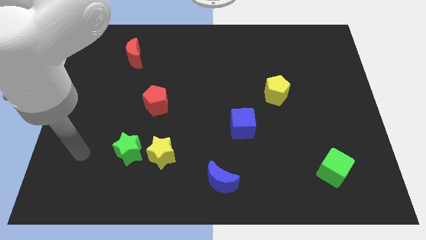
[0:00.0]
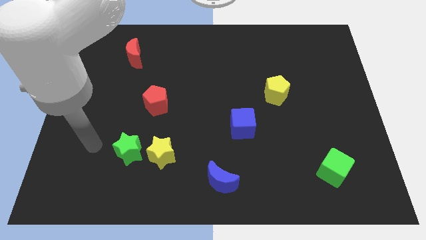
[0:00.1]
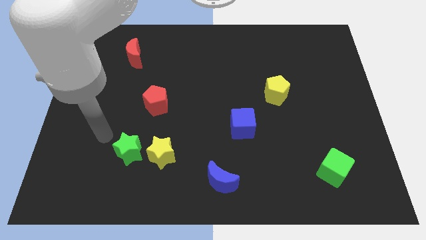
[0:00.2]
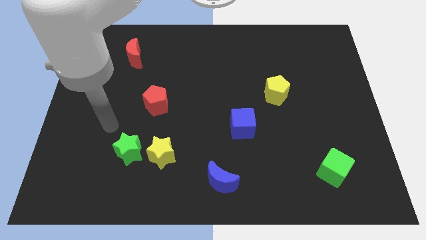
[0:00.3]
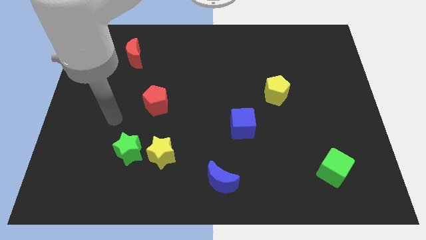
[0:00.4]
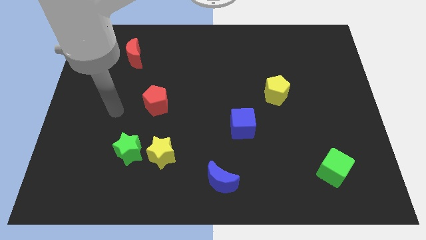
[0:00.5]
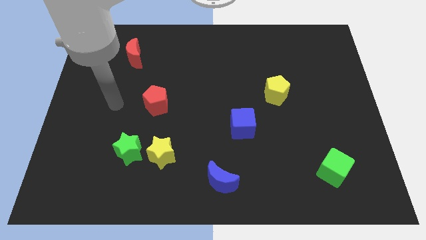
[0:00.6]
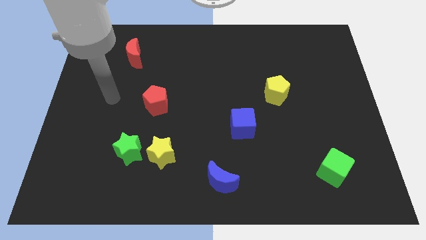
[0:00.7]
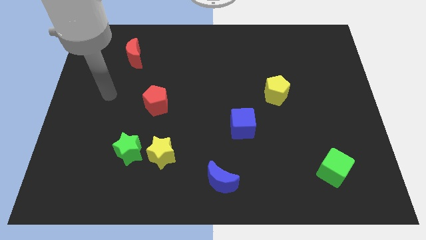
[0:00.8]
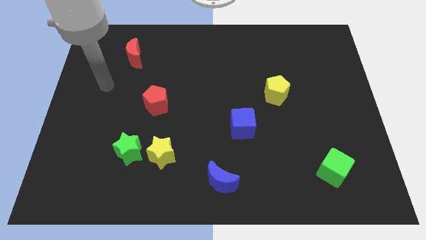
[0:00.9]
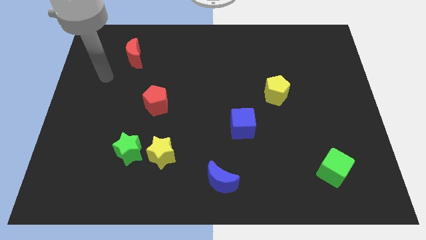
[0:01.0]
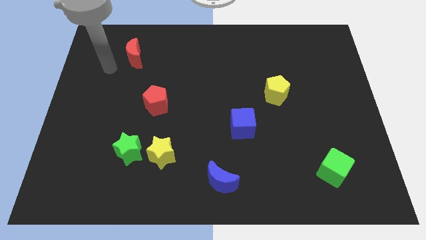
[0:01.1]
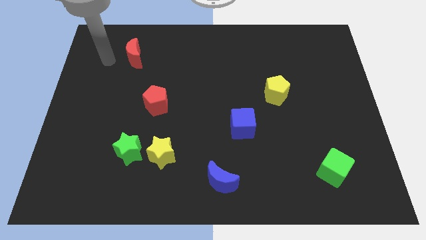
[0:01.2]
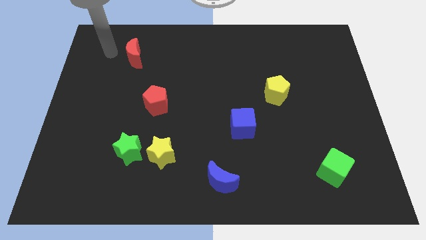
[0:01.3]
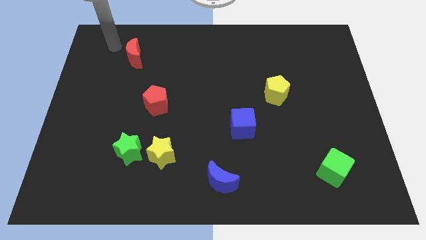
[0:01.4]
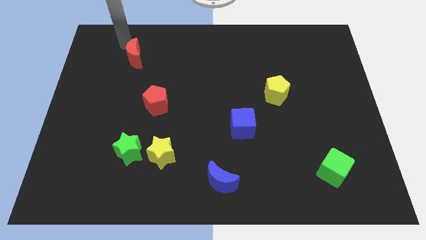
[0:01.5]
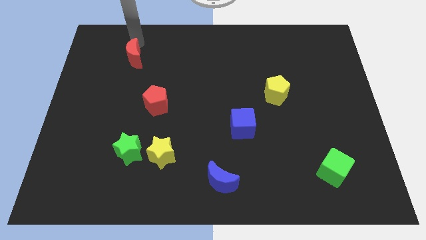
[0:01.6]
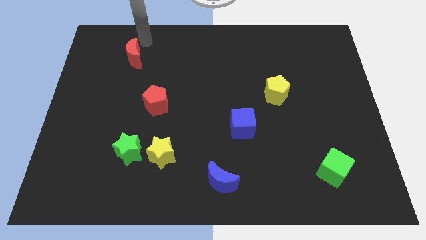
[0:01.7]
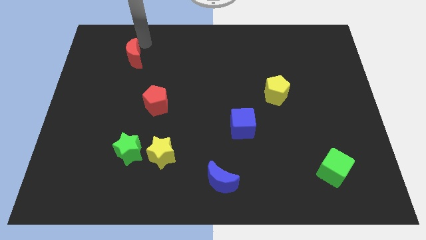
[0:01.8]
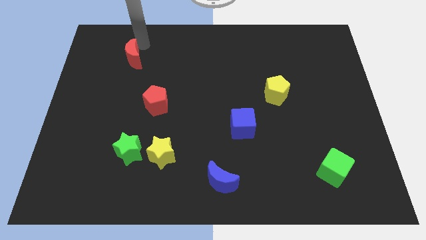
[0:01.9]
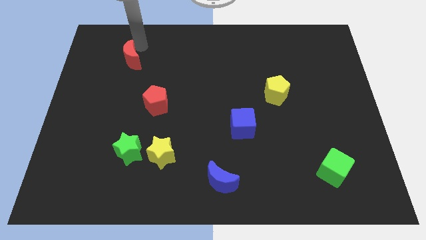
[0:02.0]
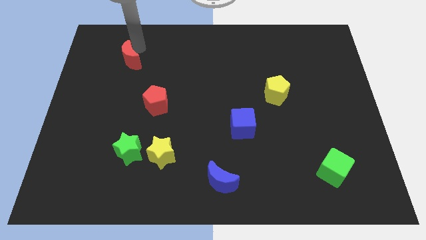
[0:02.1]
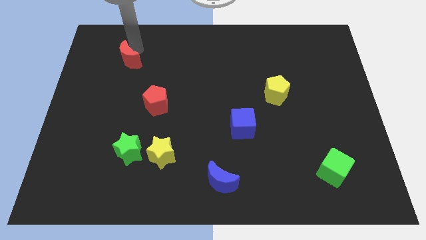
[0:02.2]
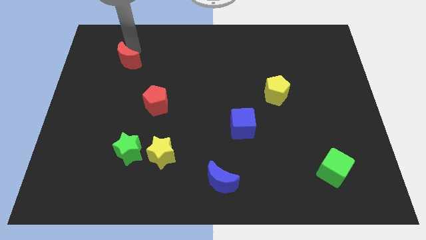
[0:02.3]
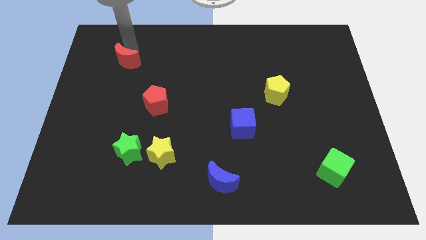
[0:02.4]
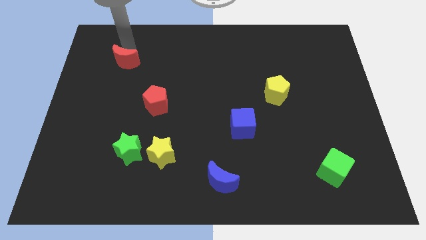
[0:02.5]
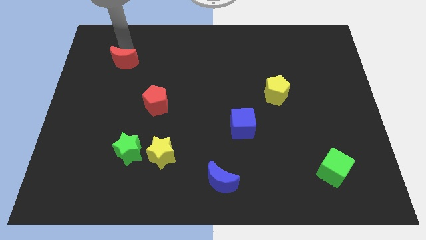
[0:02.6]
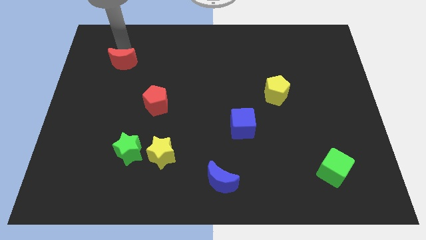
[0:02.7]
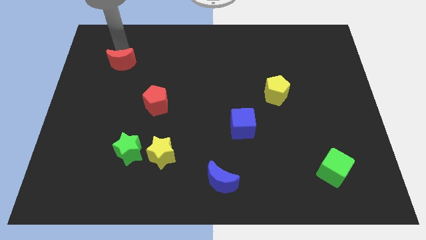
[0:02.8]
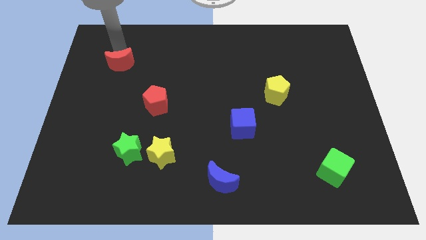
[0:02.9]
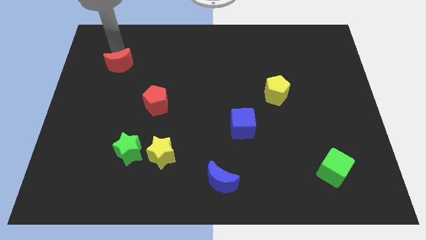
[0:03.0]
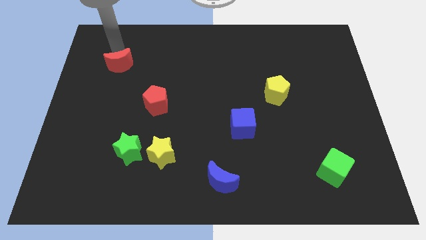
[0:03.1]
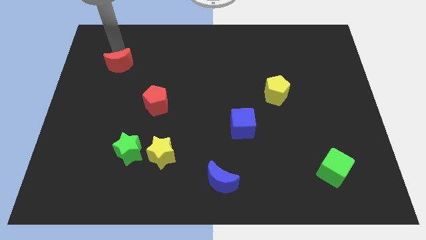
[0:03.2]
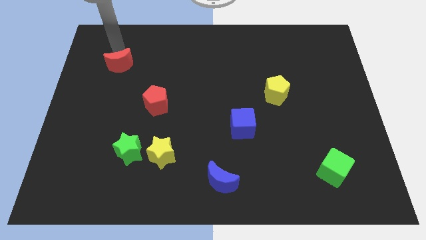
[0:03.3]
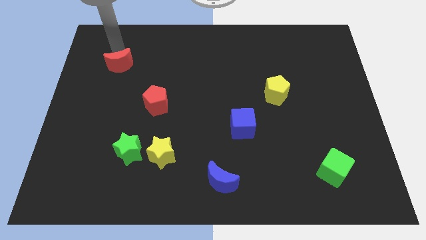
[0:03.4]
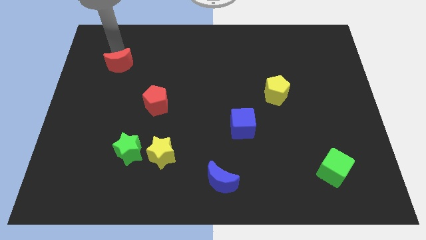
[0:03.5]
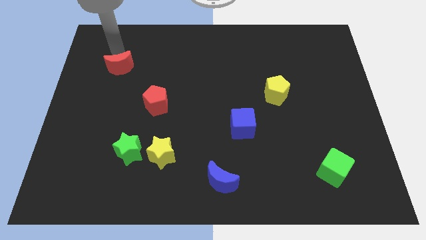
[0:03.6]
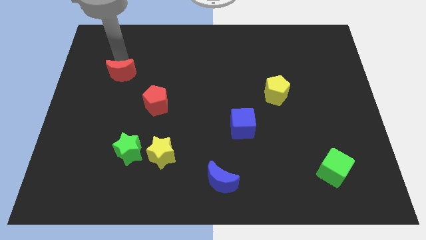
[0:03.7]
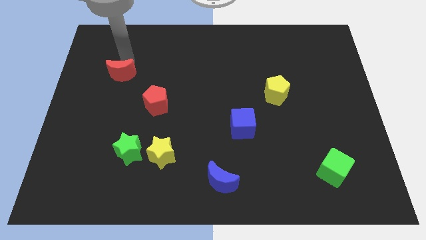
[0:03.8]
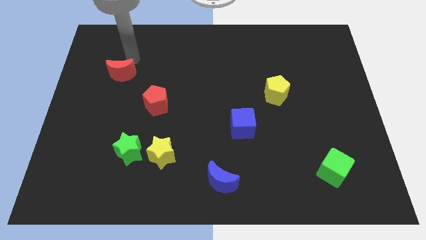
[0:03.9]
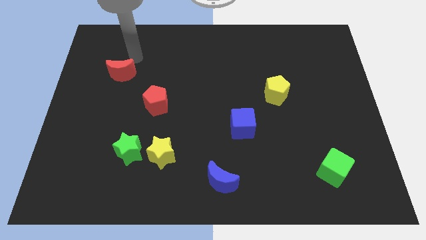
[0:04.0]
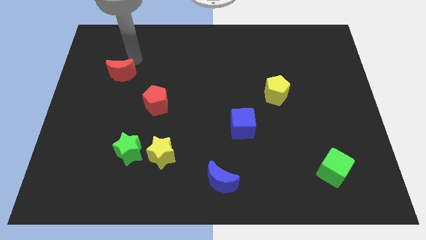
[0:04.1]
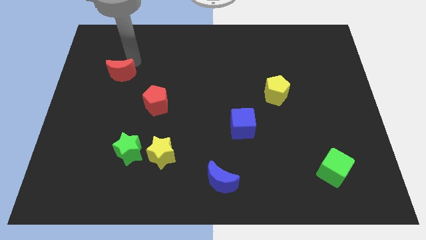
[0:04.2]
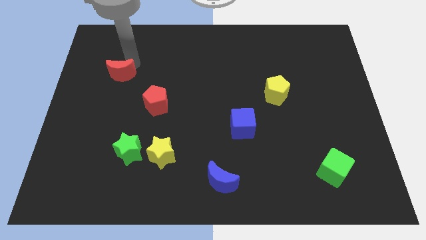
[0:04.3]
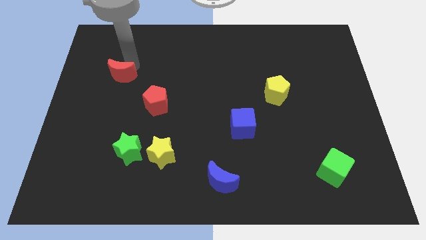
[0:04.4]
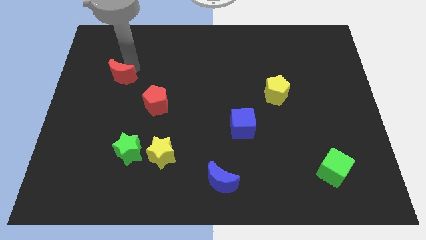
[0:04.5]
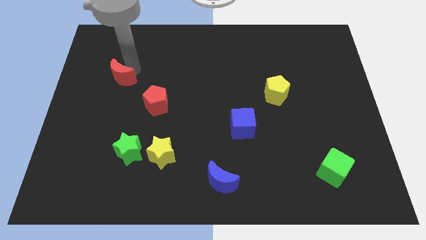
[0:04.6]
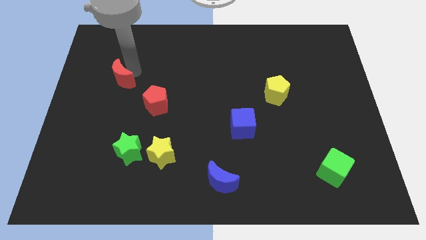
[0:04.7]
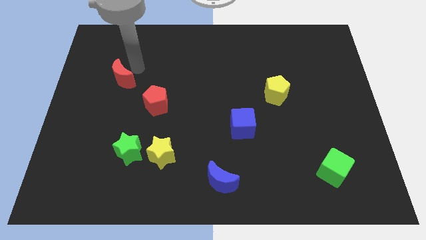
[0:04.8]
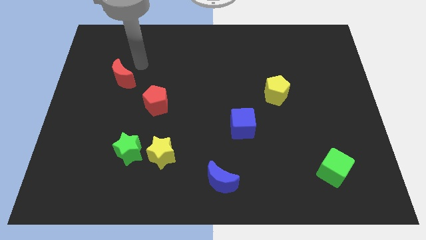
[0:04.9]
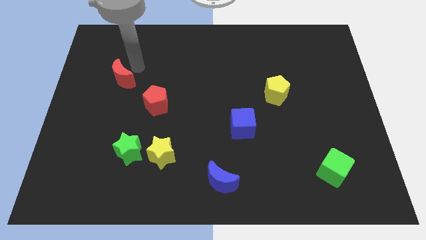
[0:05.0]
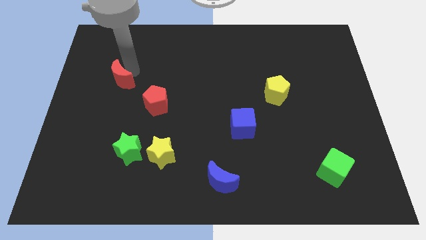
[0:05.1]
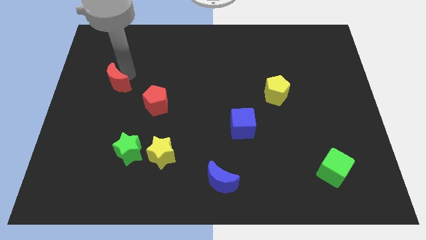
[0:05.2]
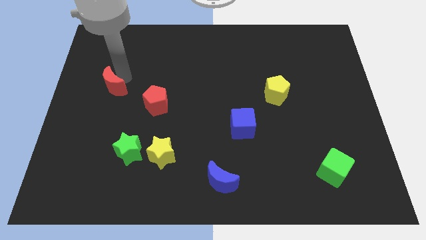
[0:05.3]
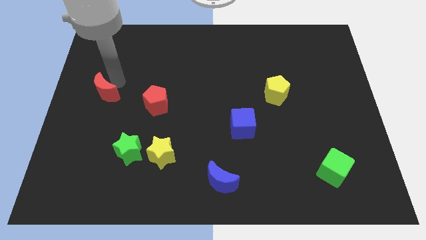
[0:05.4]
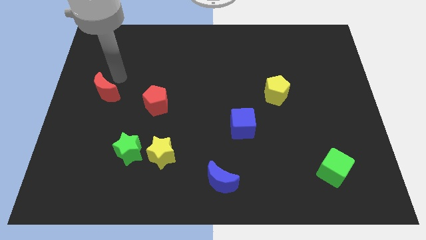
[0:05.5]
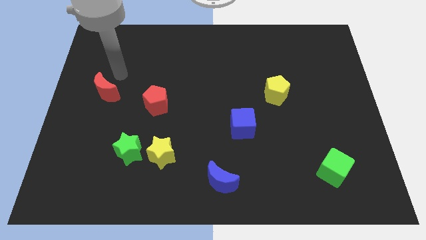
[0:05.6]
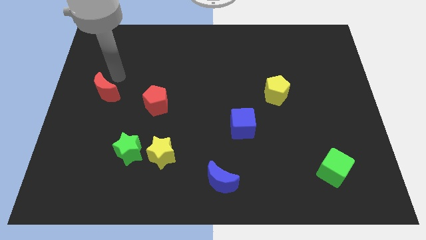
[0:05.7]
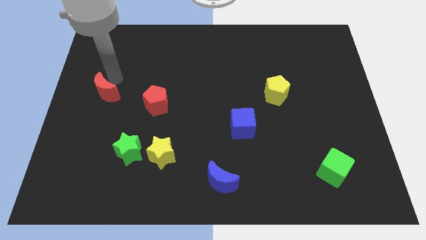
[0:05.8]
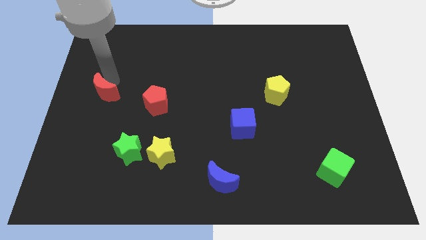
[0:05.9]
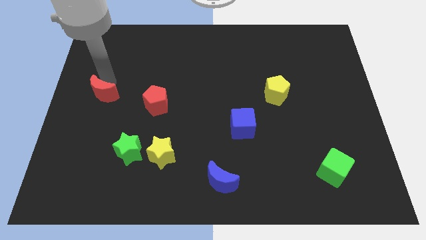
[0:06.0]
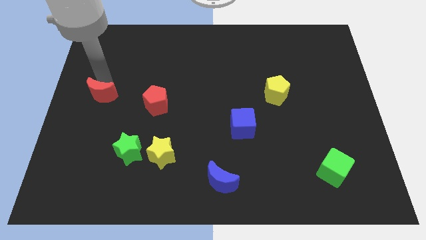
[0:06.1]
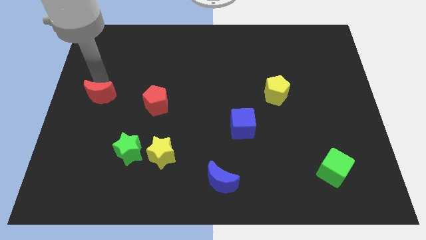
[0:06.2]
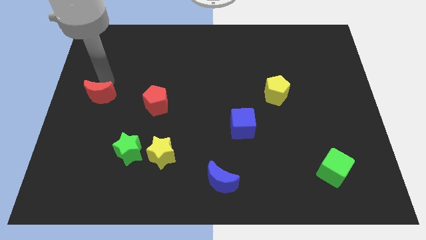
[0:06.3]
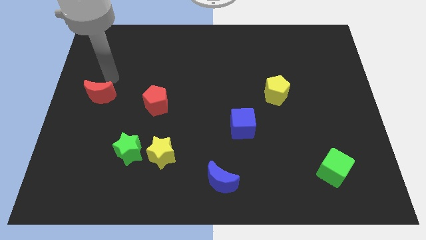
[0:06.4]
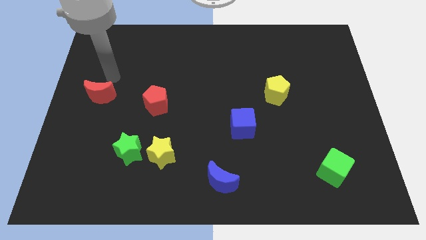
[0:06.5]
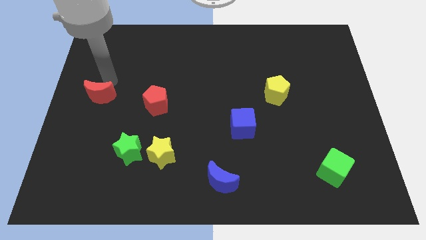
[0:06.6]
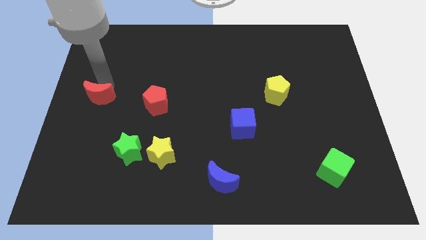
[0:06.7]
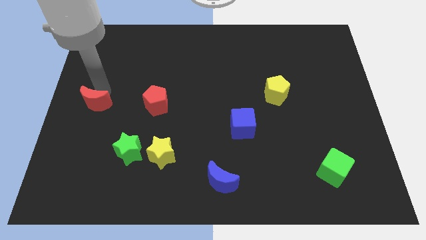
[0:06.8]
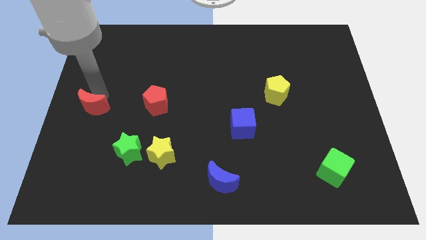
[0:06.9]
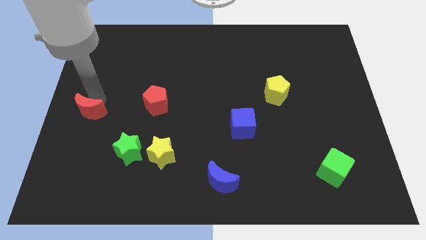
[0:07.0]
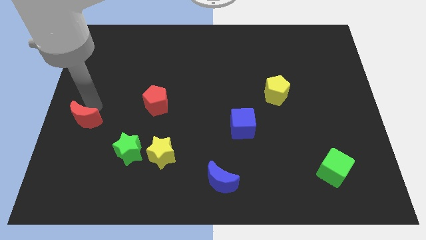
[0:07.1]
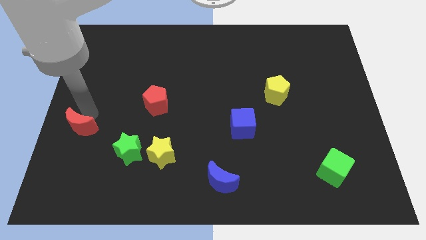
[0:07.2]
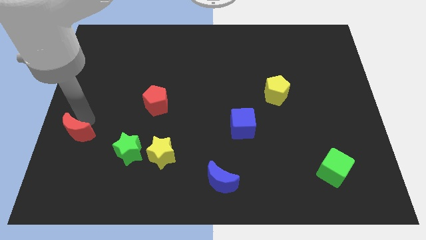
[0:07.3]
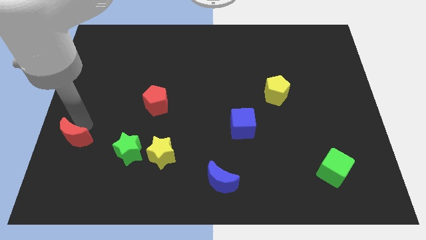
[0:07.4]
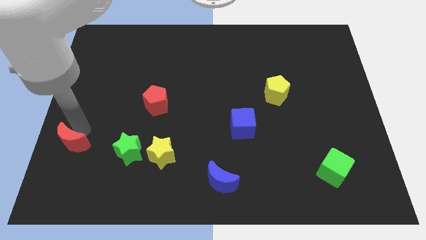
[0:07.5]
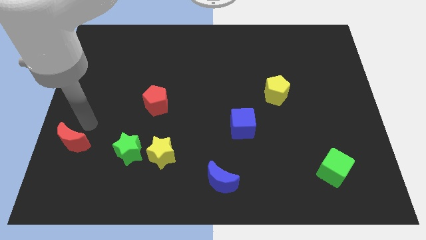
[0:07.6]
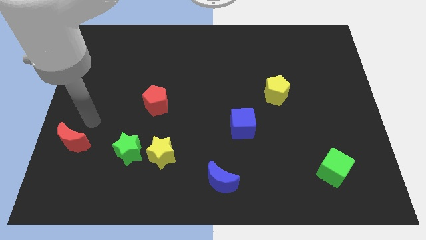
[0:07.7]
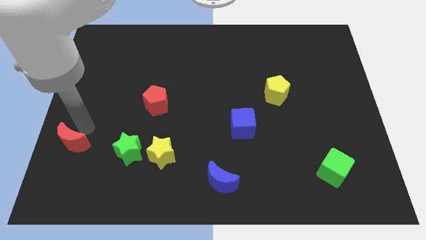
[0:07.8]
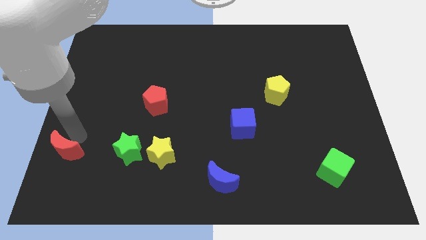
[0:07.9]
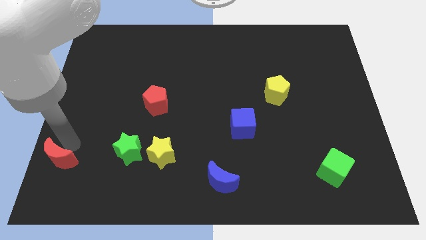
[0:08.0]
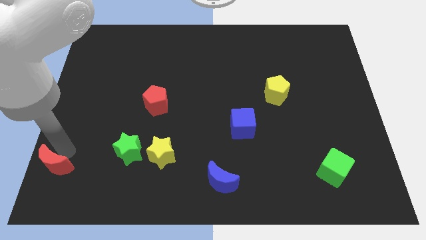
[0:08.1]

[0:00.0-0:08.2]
move the red moon to the bottom left corner
